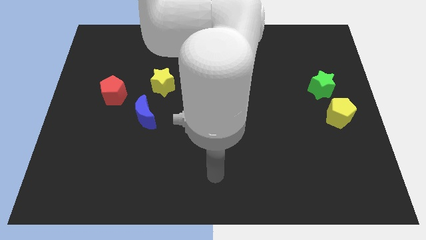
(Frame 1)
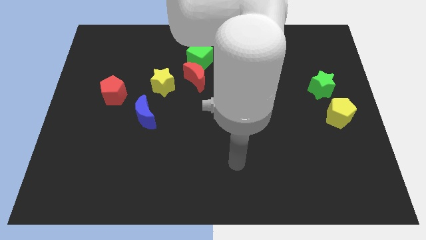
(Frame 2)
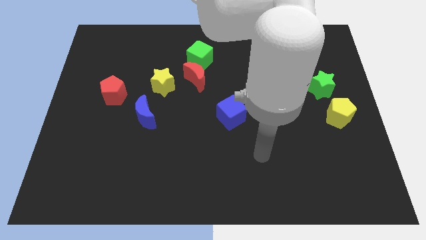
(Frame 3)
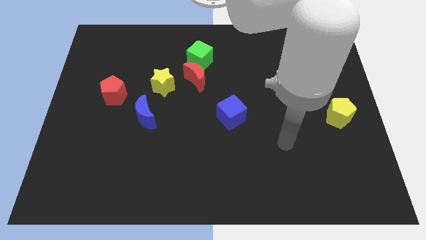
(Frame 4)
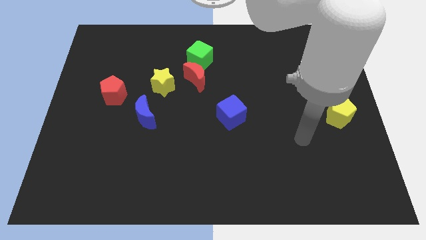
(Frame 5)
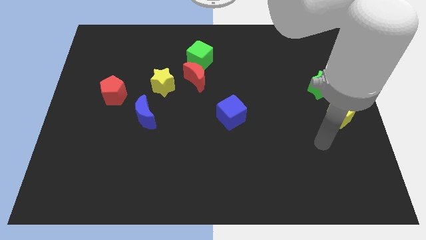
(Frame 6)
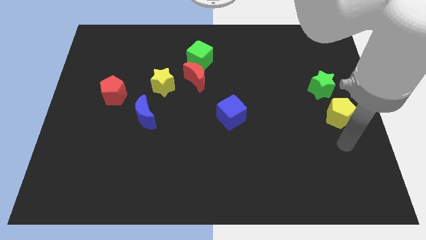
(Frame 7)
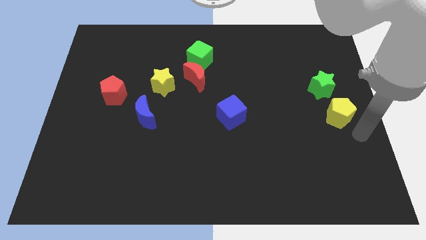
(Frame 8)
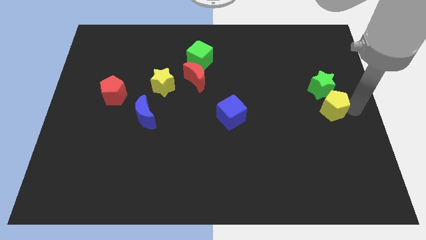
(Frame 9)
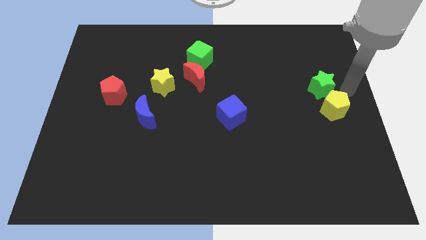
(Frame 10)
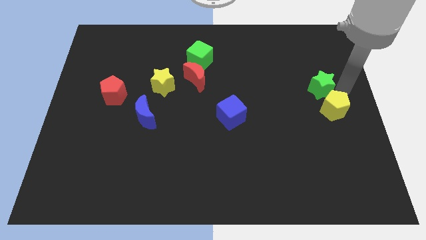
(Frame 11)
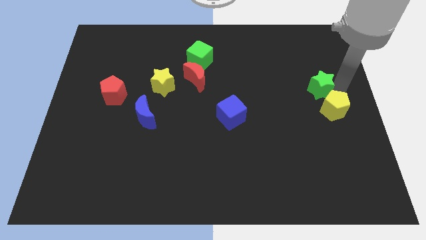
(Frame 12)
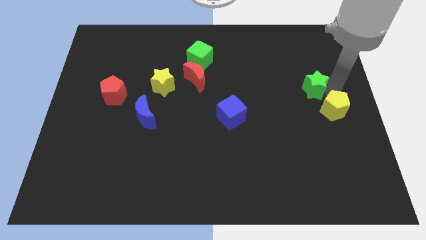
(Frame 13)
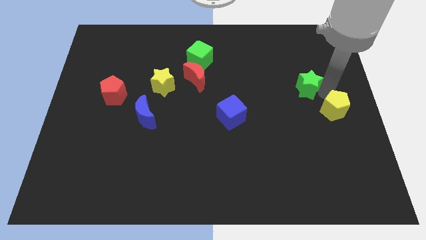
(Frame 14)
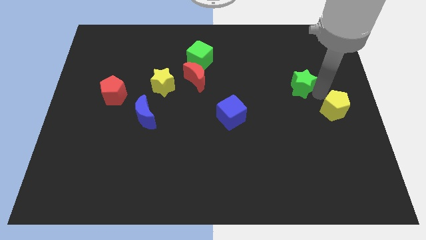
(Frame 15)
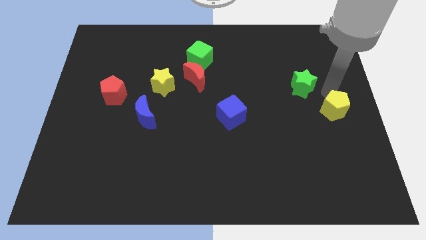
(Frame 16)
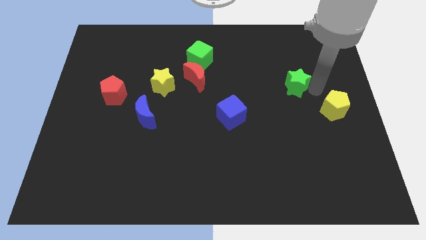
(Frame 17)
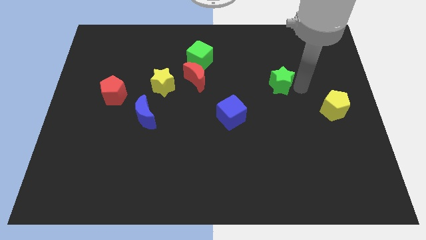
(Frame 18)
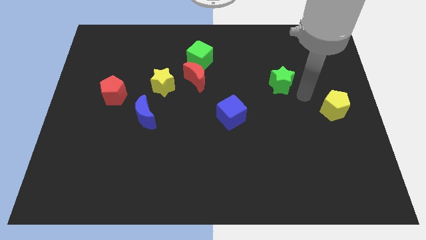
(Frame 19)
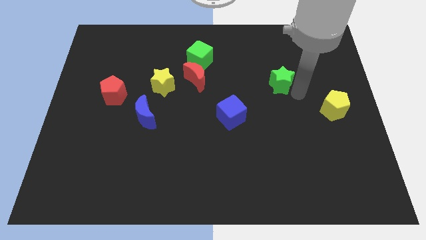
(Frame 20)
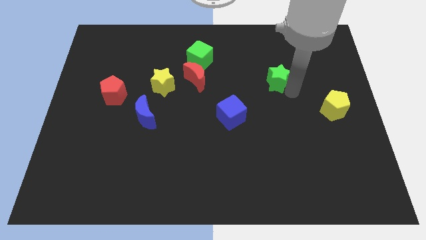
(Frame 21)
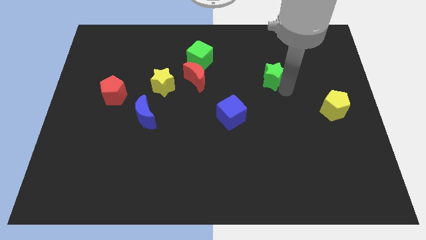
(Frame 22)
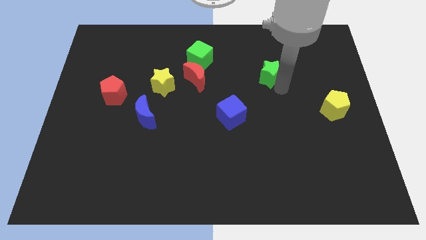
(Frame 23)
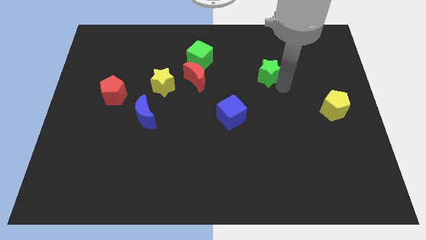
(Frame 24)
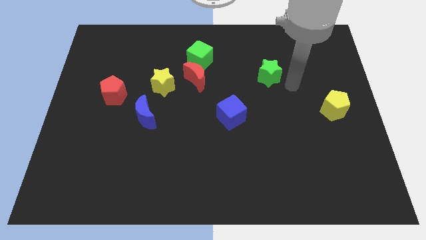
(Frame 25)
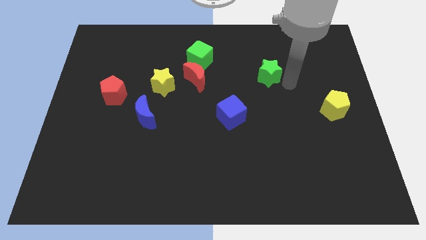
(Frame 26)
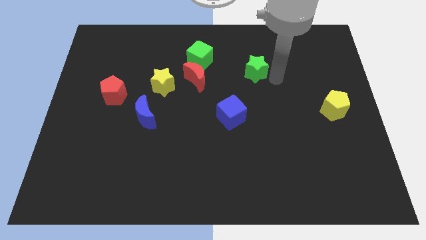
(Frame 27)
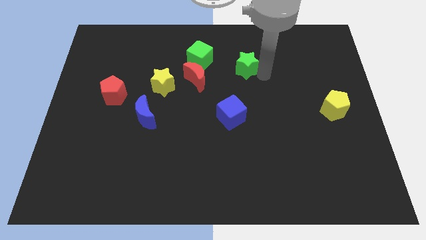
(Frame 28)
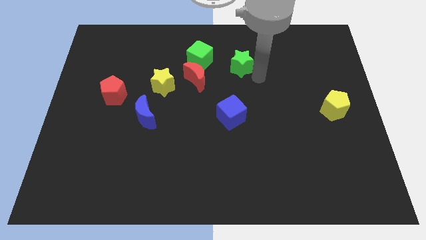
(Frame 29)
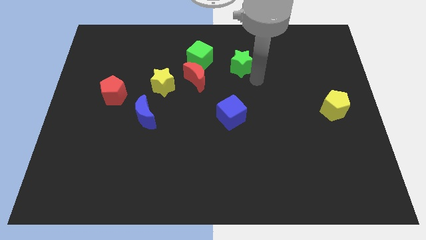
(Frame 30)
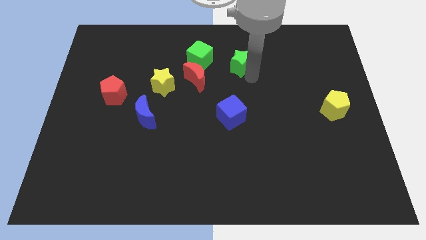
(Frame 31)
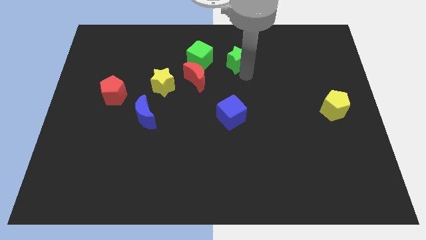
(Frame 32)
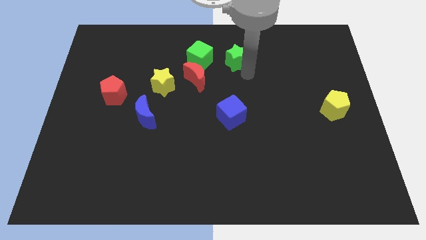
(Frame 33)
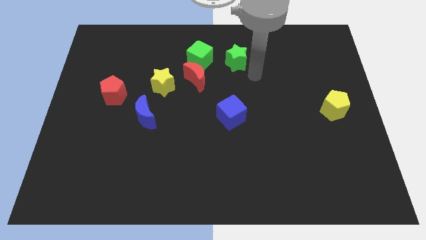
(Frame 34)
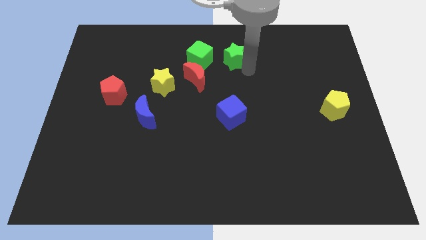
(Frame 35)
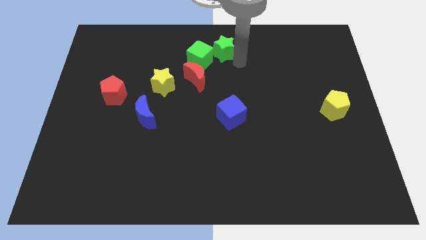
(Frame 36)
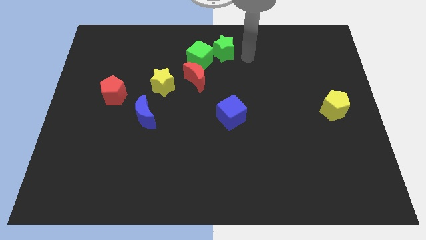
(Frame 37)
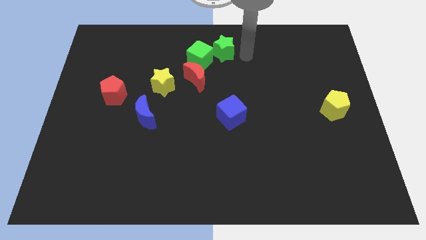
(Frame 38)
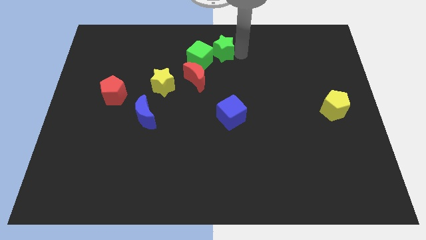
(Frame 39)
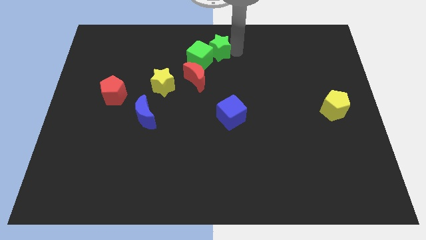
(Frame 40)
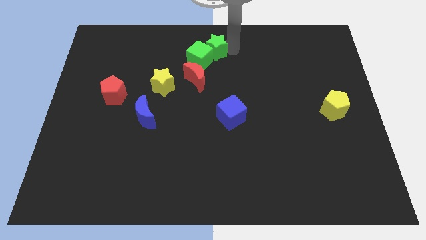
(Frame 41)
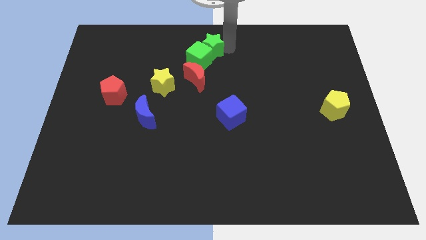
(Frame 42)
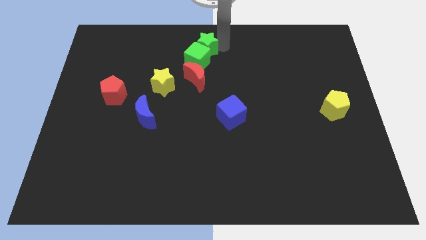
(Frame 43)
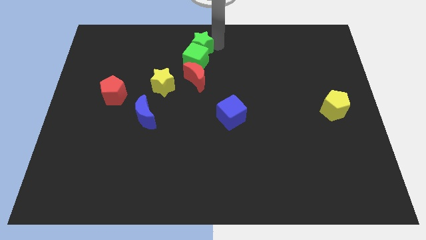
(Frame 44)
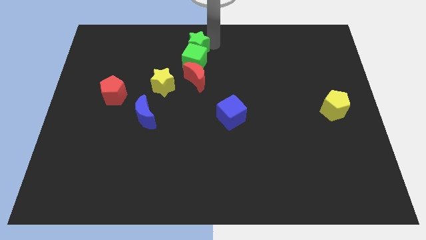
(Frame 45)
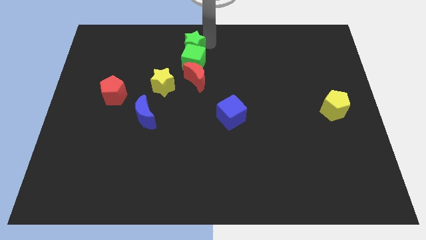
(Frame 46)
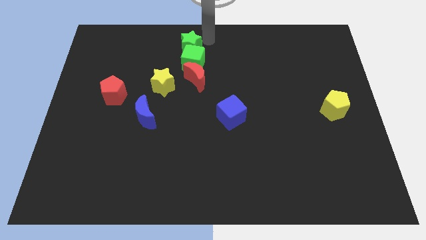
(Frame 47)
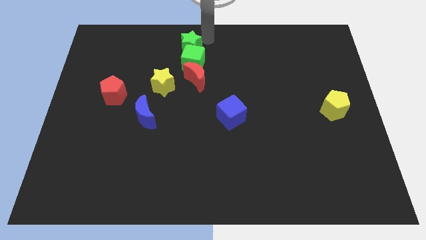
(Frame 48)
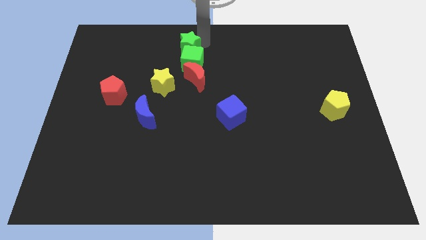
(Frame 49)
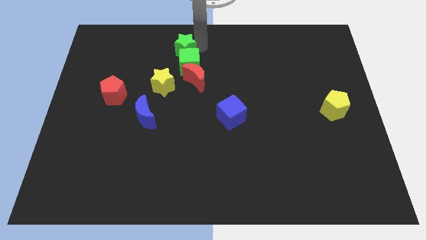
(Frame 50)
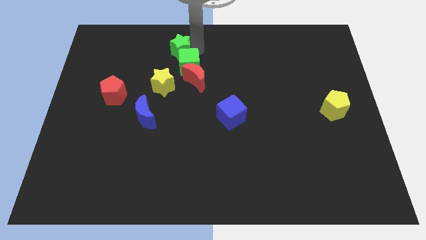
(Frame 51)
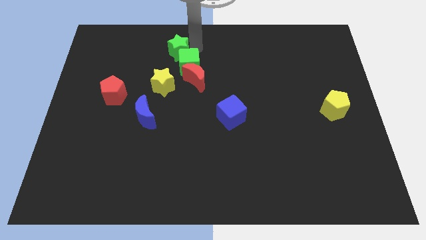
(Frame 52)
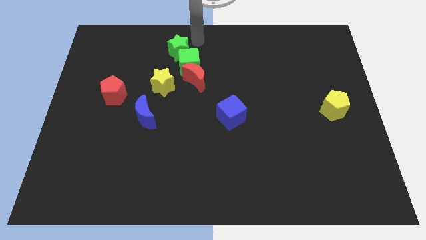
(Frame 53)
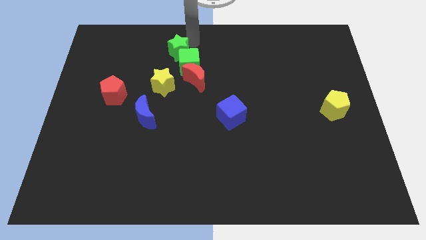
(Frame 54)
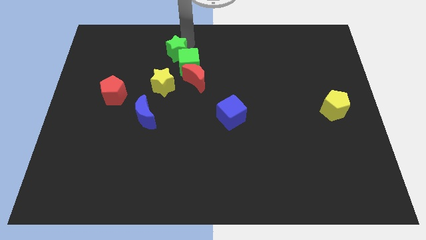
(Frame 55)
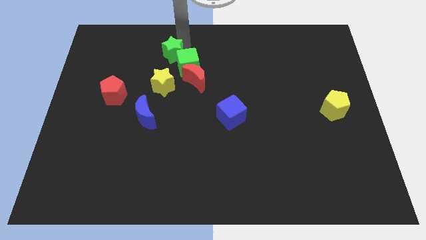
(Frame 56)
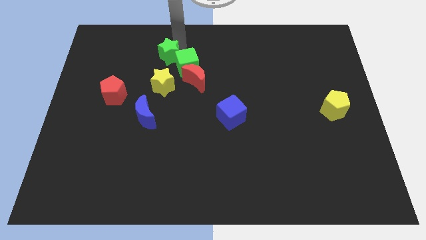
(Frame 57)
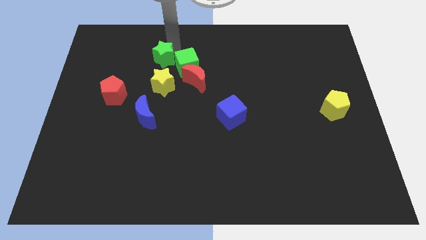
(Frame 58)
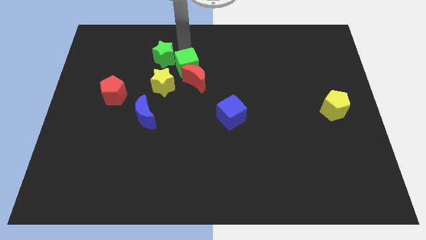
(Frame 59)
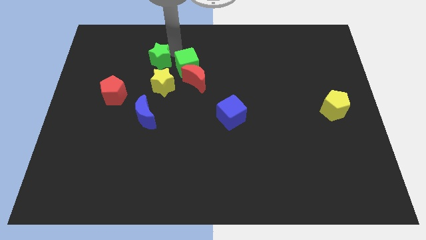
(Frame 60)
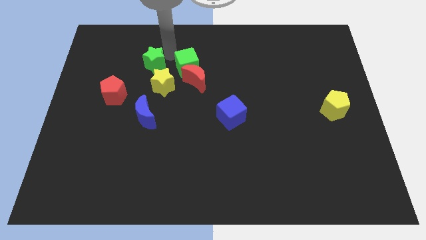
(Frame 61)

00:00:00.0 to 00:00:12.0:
move the green star diagonally up and to the left of the yellow star

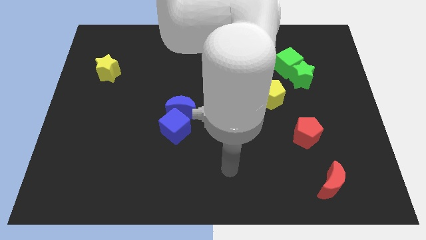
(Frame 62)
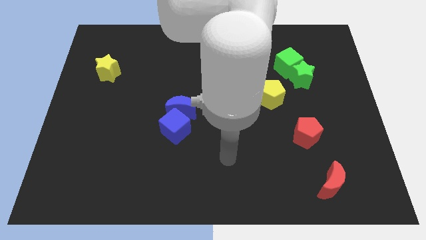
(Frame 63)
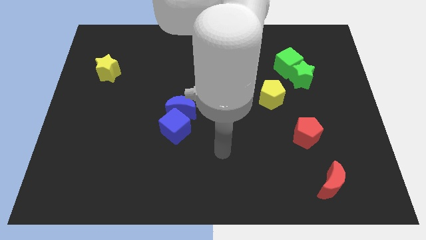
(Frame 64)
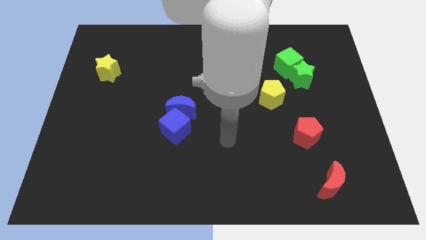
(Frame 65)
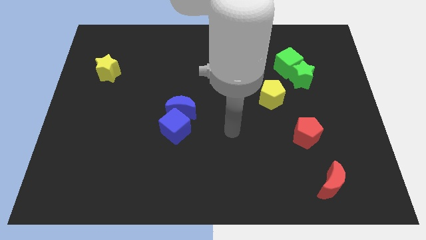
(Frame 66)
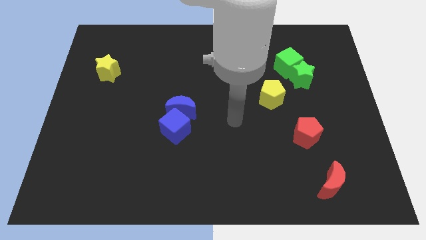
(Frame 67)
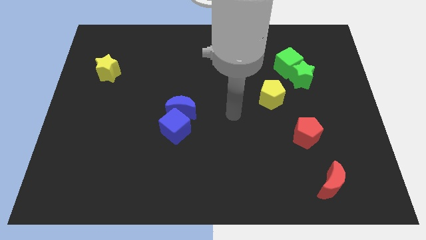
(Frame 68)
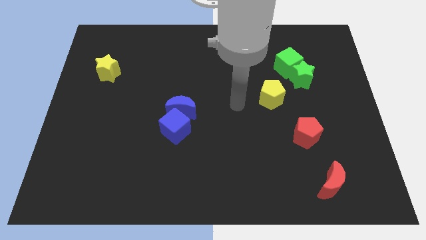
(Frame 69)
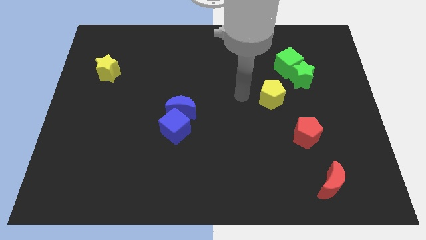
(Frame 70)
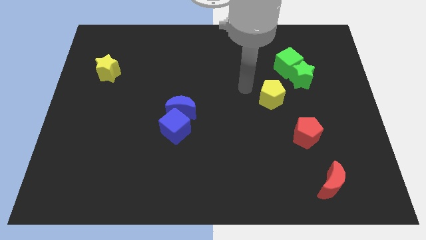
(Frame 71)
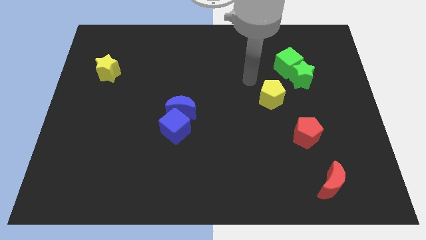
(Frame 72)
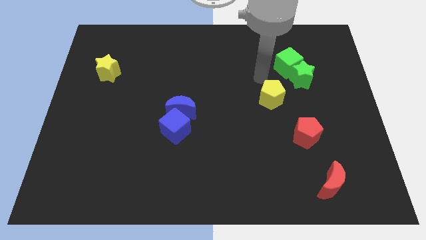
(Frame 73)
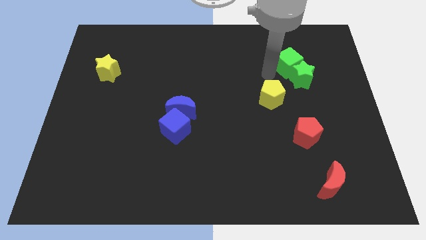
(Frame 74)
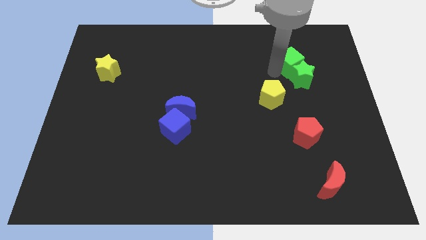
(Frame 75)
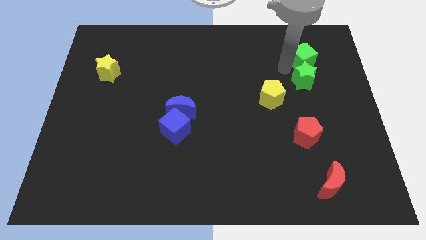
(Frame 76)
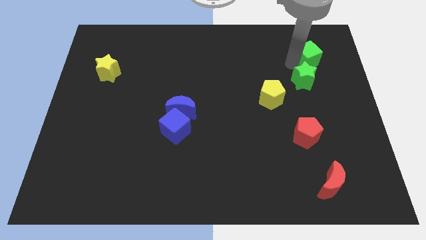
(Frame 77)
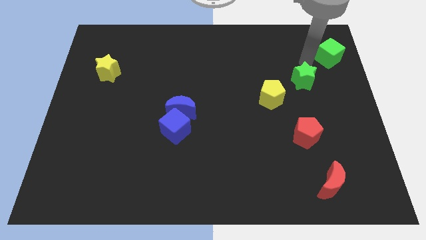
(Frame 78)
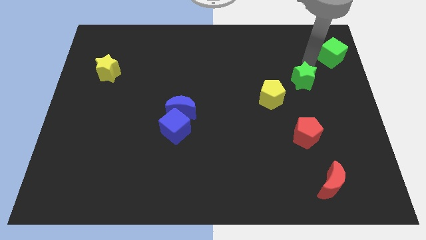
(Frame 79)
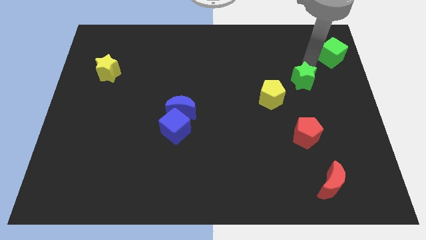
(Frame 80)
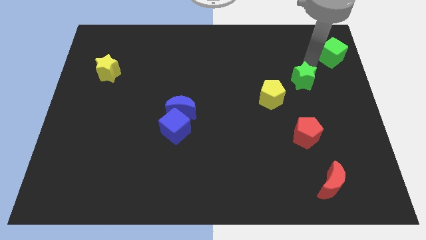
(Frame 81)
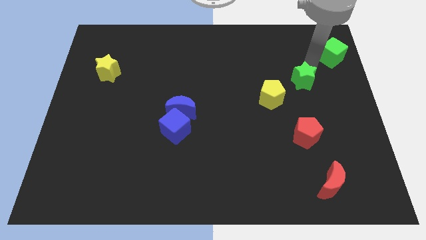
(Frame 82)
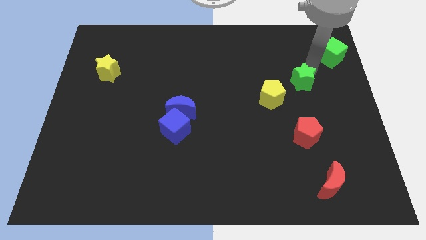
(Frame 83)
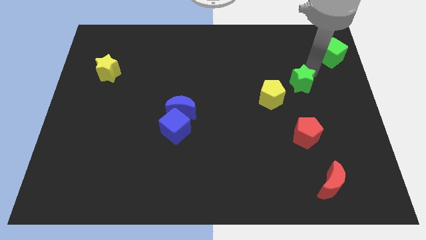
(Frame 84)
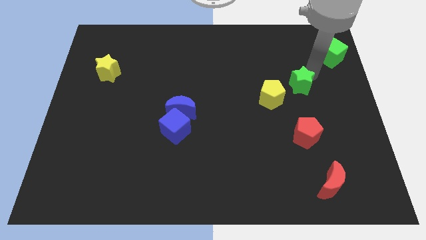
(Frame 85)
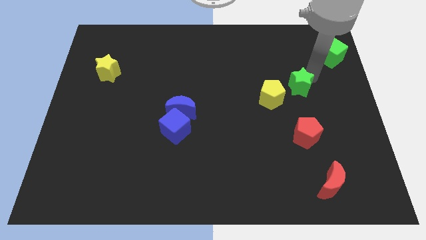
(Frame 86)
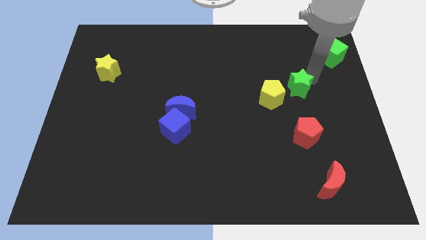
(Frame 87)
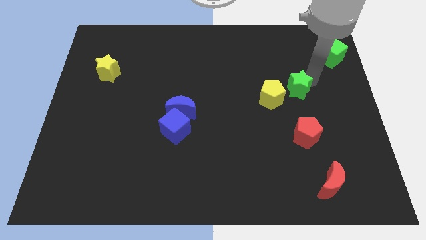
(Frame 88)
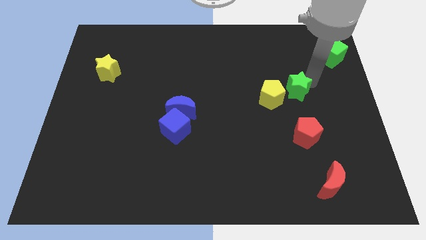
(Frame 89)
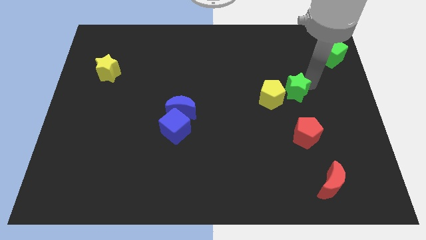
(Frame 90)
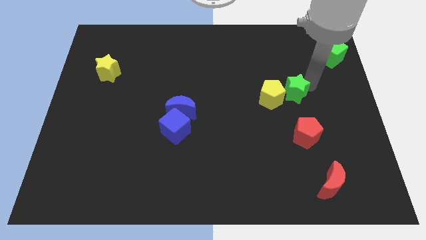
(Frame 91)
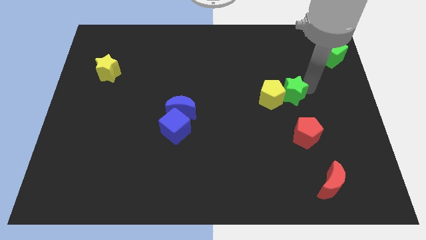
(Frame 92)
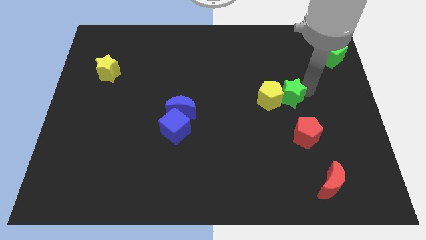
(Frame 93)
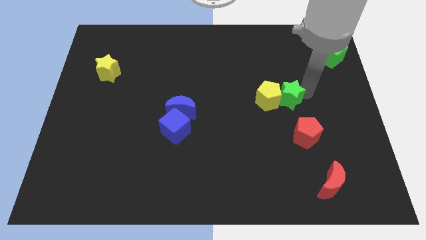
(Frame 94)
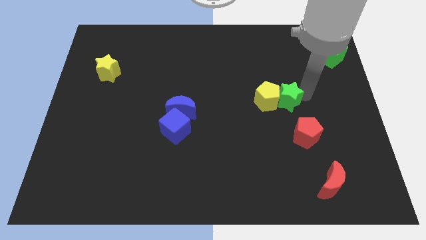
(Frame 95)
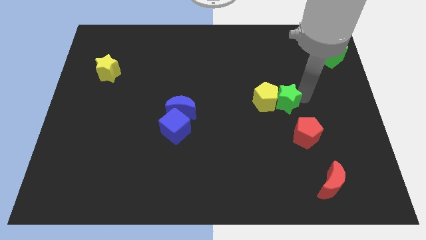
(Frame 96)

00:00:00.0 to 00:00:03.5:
push the green star to the top left side of the red pentagon
